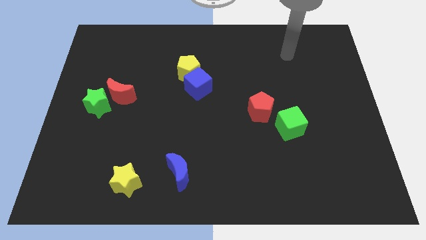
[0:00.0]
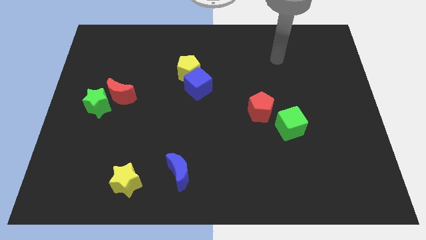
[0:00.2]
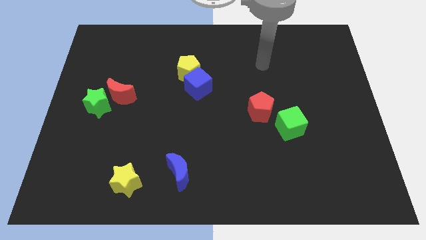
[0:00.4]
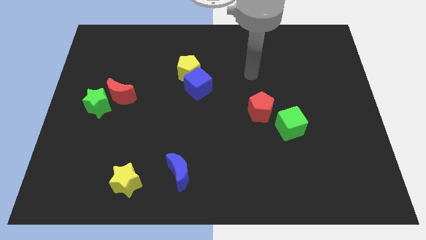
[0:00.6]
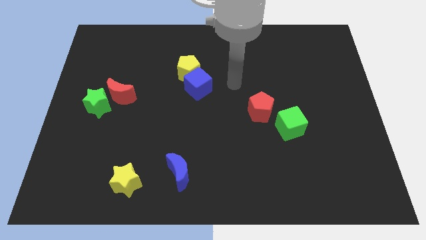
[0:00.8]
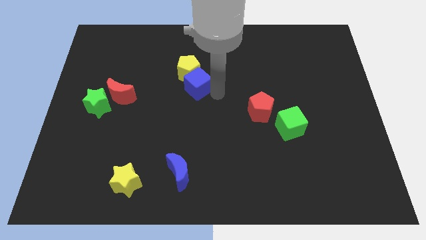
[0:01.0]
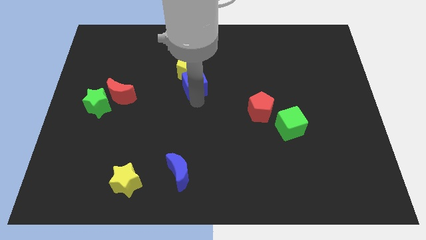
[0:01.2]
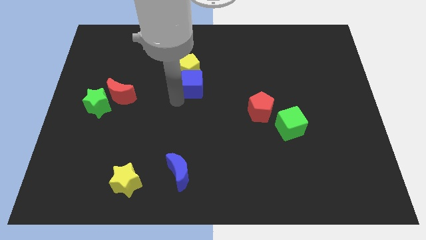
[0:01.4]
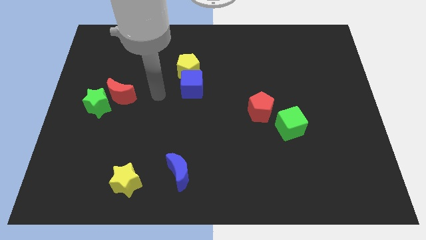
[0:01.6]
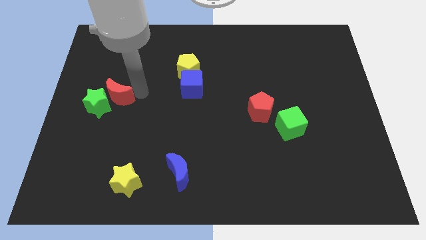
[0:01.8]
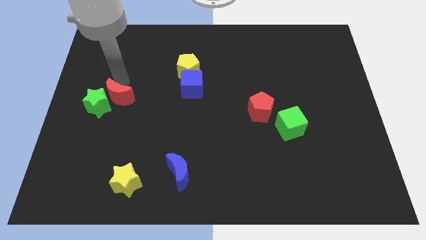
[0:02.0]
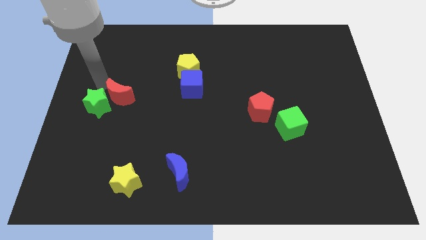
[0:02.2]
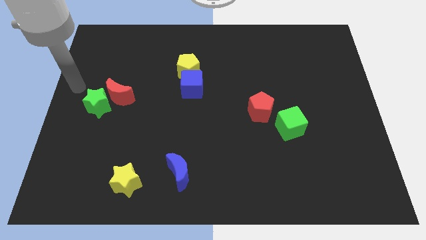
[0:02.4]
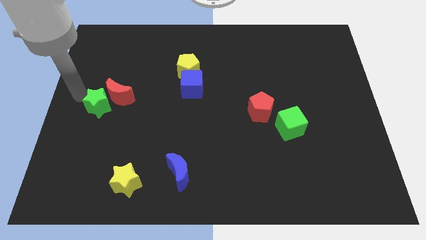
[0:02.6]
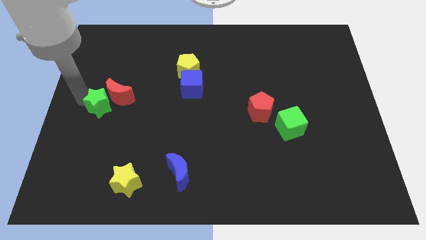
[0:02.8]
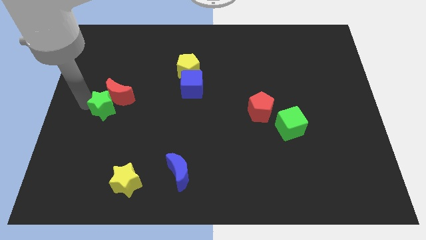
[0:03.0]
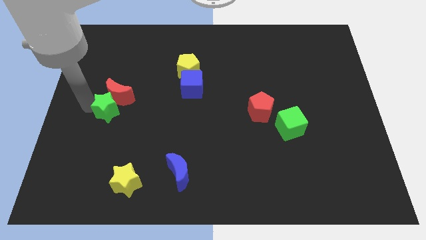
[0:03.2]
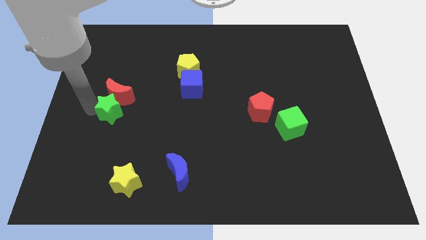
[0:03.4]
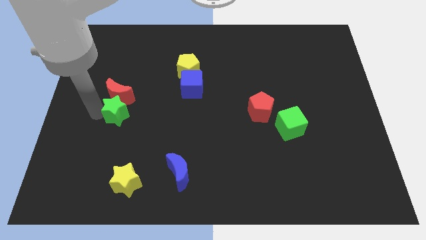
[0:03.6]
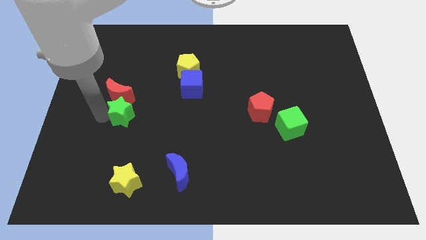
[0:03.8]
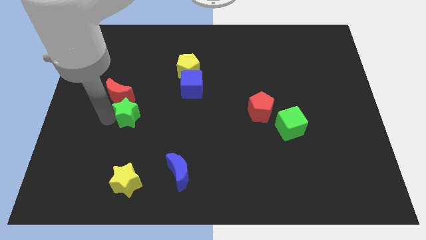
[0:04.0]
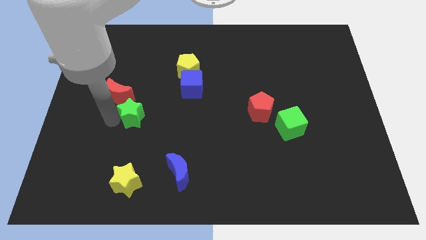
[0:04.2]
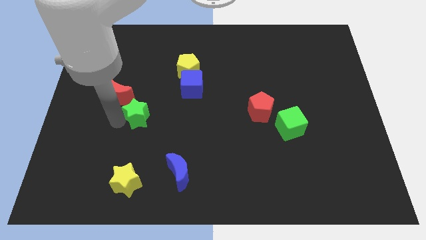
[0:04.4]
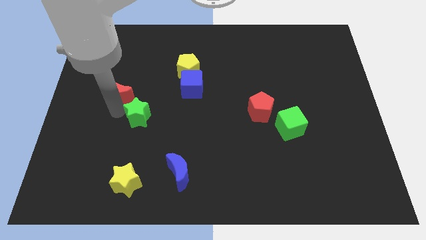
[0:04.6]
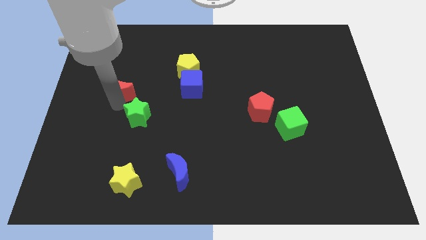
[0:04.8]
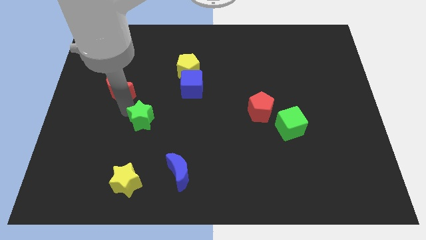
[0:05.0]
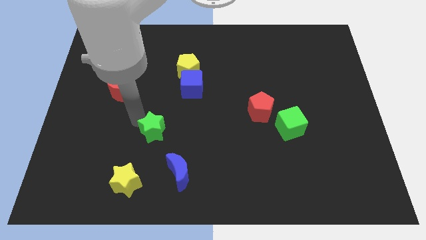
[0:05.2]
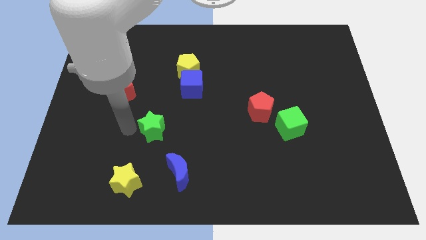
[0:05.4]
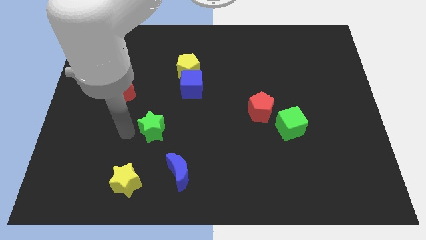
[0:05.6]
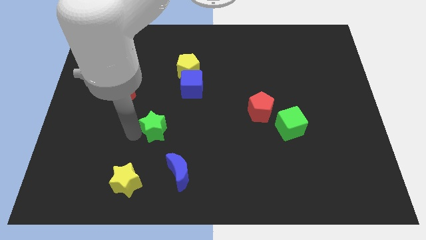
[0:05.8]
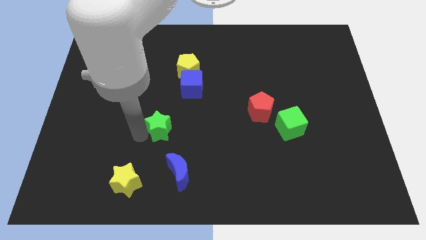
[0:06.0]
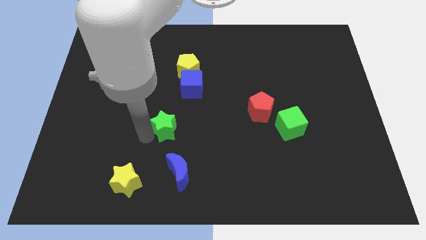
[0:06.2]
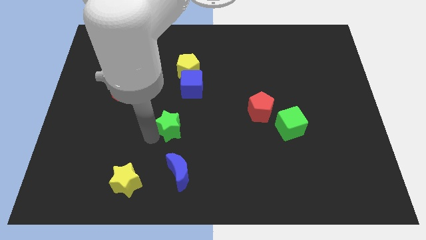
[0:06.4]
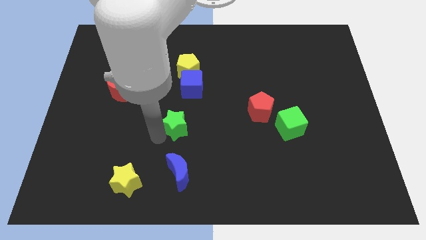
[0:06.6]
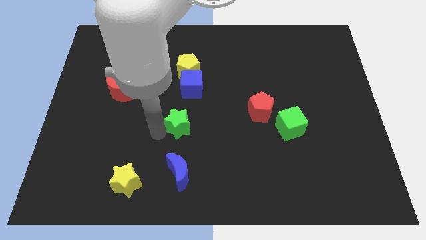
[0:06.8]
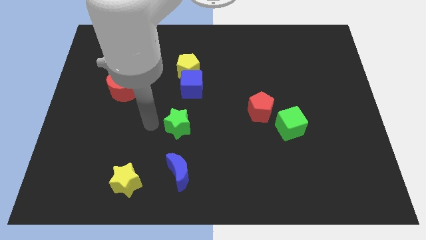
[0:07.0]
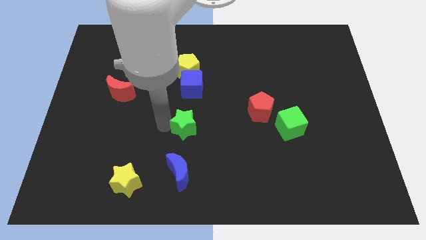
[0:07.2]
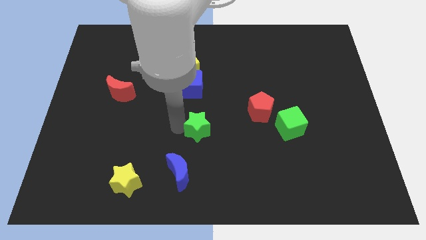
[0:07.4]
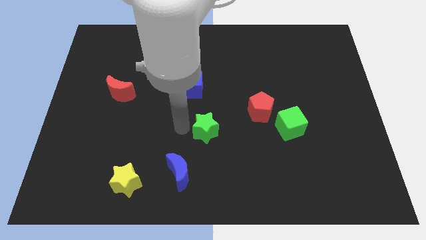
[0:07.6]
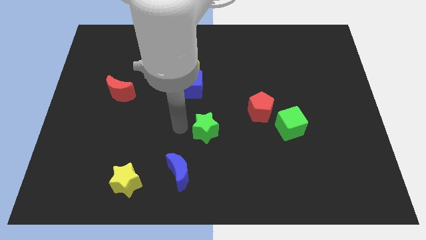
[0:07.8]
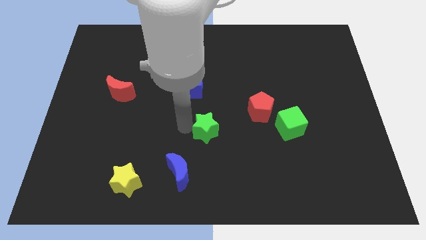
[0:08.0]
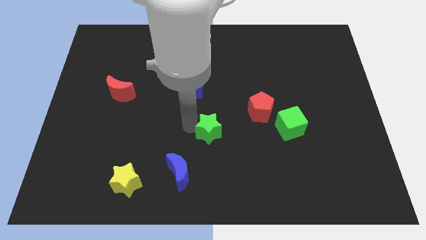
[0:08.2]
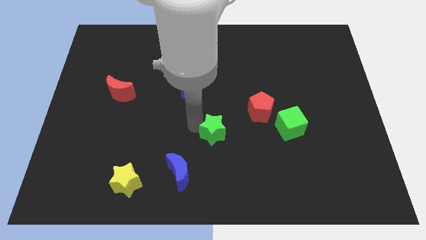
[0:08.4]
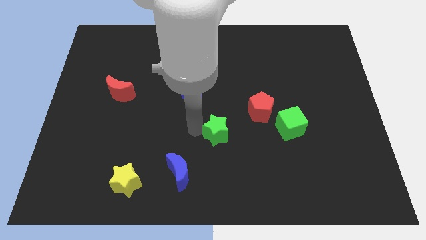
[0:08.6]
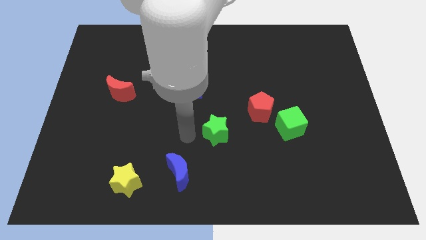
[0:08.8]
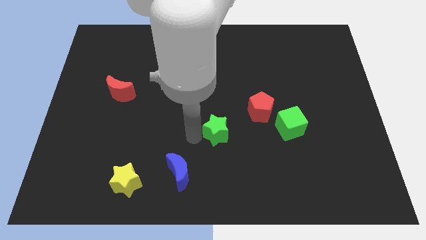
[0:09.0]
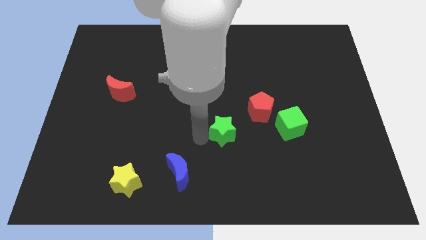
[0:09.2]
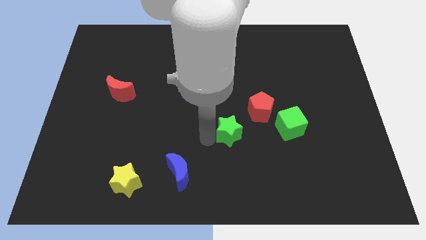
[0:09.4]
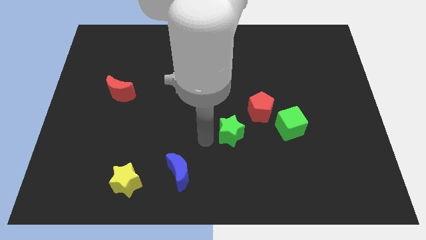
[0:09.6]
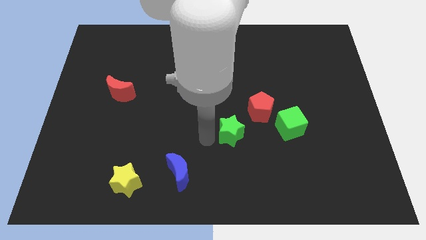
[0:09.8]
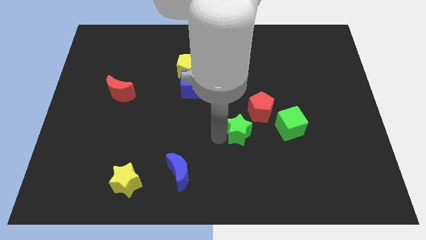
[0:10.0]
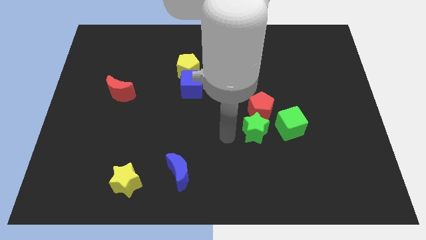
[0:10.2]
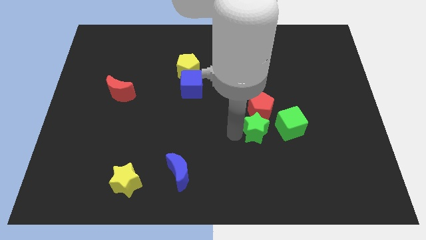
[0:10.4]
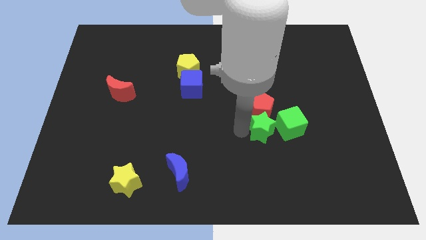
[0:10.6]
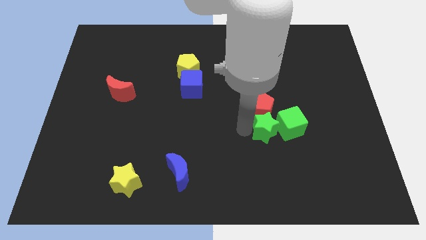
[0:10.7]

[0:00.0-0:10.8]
move the green star next to the green cube

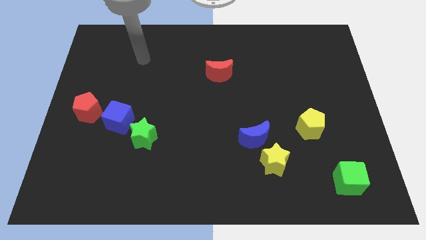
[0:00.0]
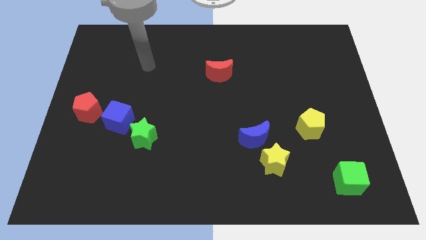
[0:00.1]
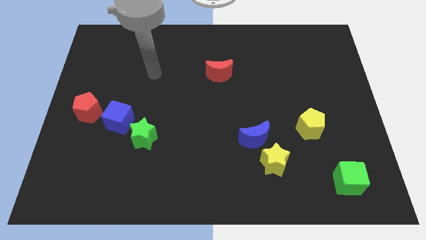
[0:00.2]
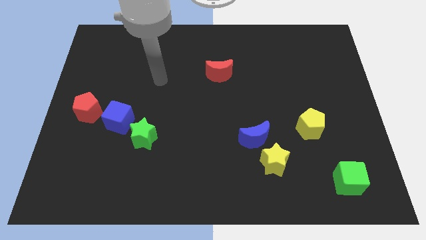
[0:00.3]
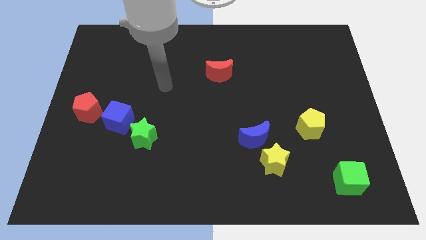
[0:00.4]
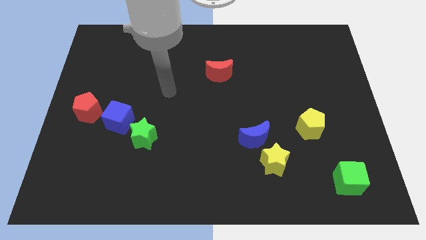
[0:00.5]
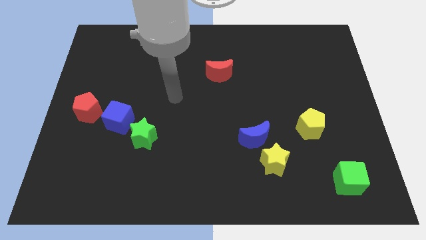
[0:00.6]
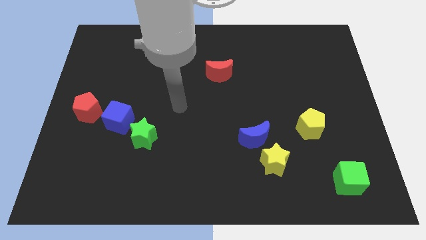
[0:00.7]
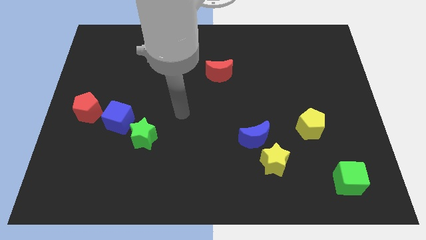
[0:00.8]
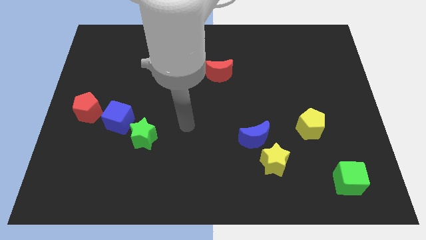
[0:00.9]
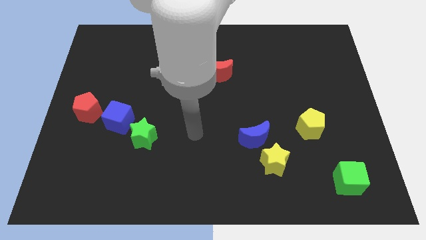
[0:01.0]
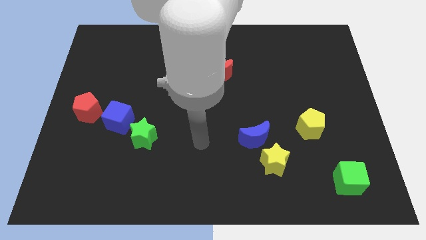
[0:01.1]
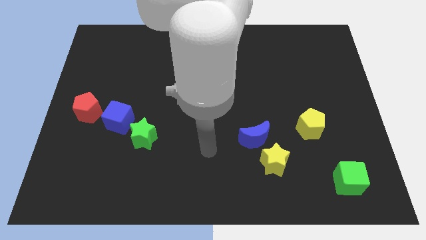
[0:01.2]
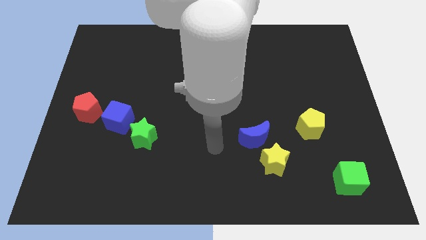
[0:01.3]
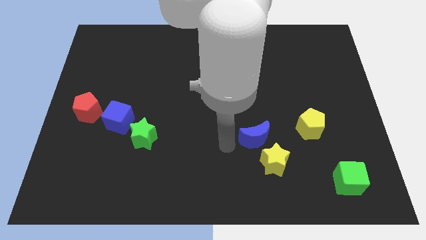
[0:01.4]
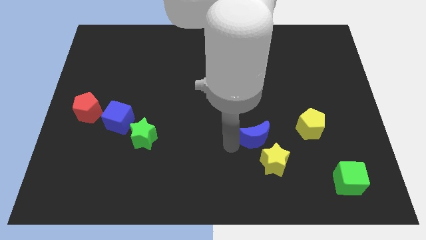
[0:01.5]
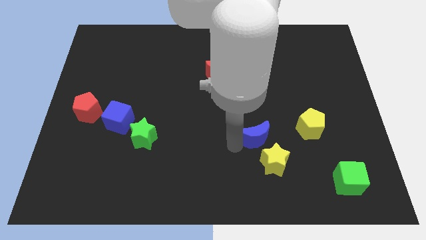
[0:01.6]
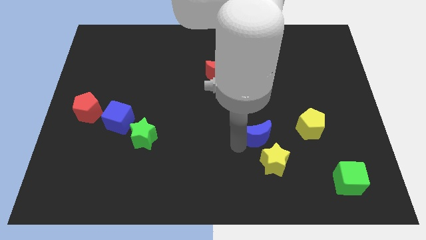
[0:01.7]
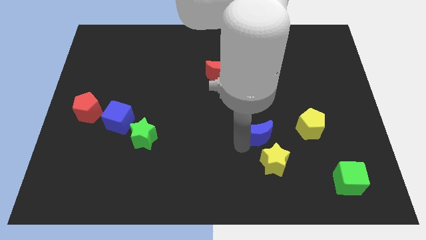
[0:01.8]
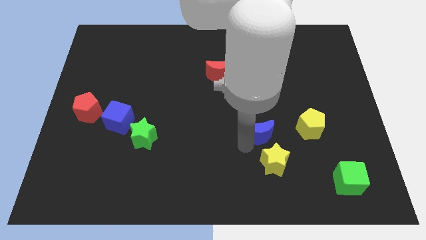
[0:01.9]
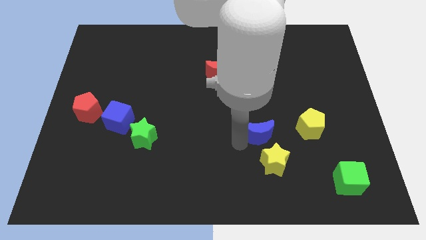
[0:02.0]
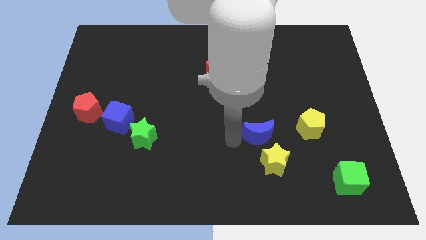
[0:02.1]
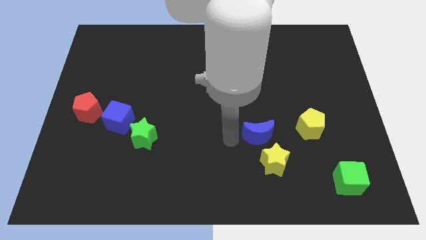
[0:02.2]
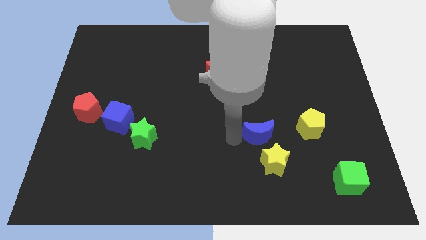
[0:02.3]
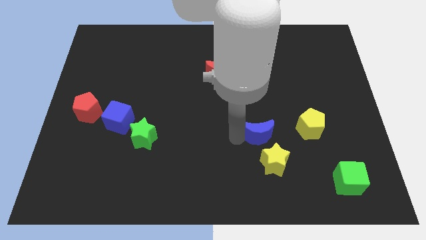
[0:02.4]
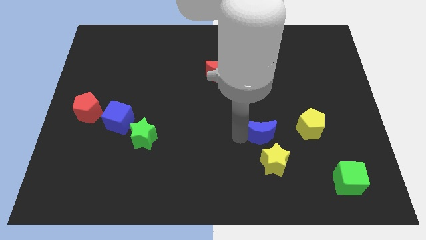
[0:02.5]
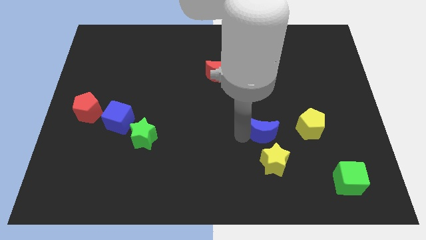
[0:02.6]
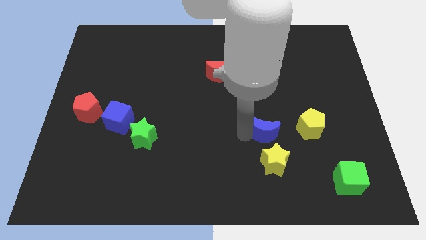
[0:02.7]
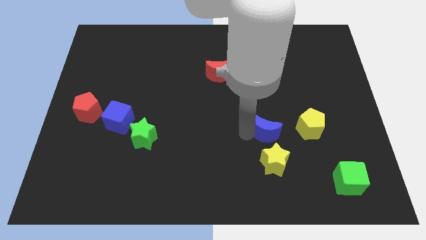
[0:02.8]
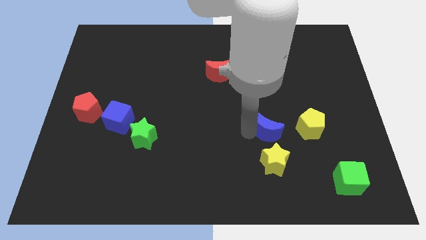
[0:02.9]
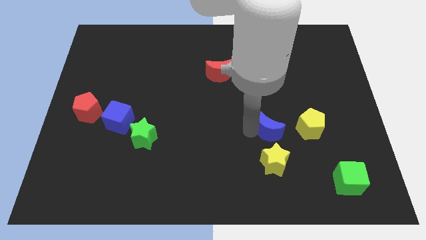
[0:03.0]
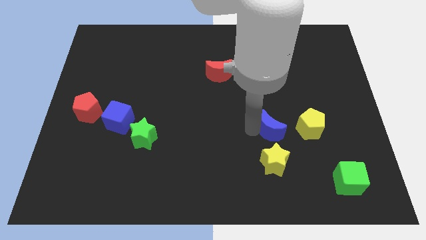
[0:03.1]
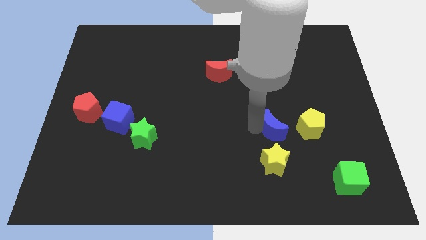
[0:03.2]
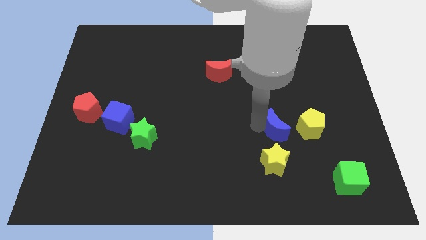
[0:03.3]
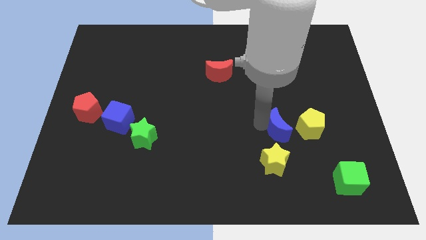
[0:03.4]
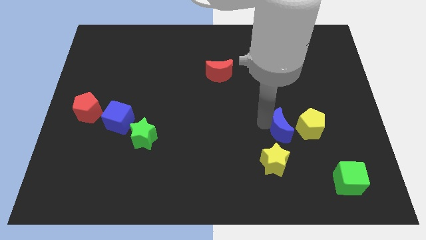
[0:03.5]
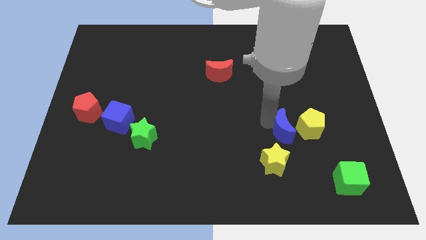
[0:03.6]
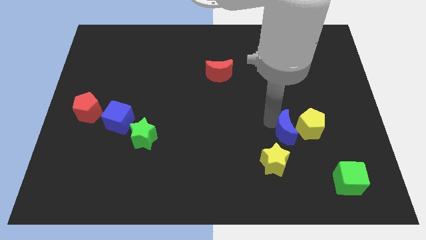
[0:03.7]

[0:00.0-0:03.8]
put the blue moon towards the yellow pentagon
